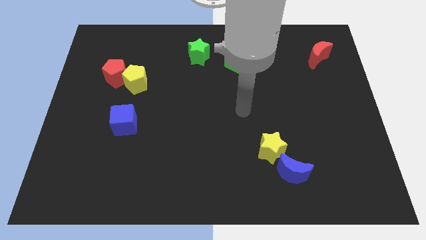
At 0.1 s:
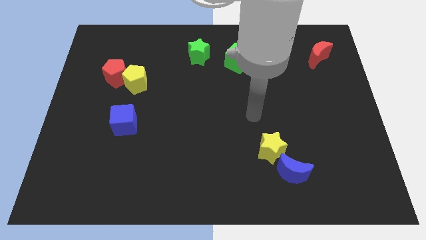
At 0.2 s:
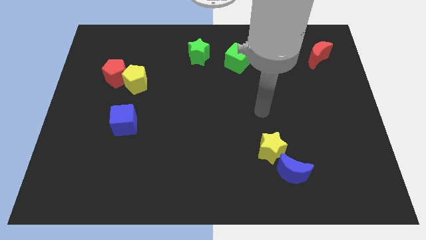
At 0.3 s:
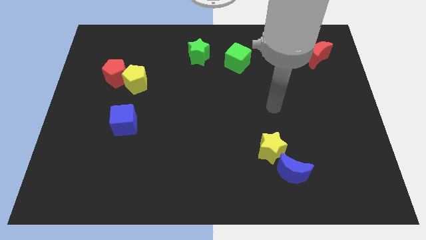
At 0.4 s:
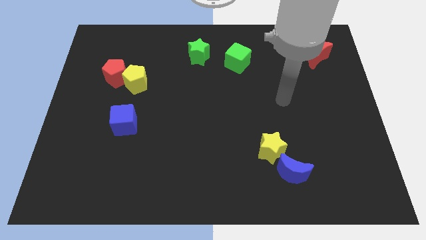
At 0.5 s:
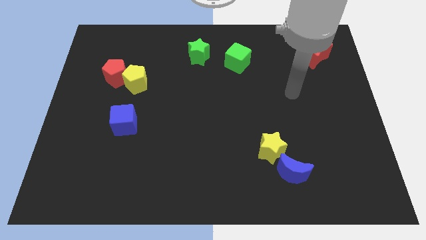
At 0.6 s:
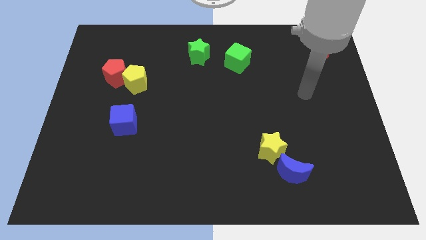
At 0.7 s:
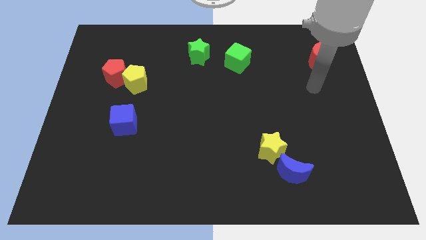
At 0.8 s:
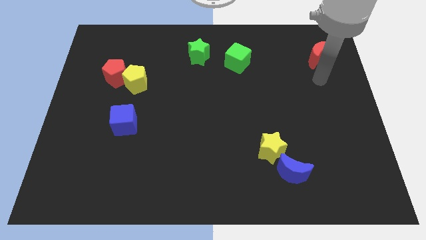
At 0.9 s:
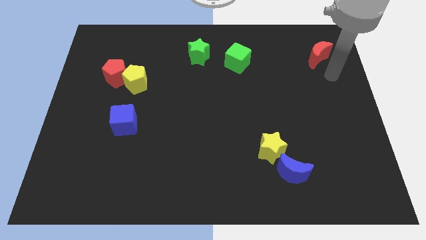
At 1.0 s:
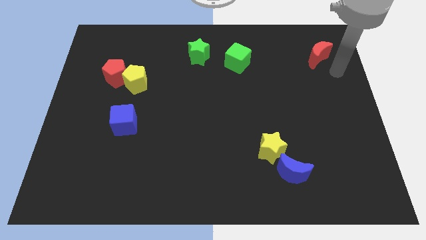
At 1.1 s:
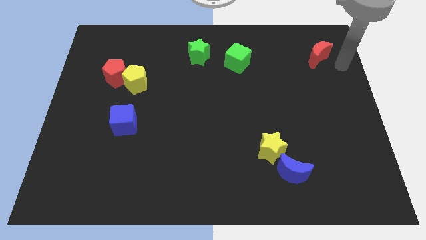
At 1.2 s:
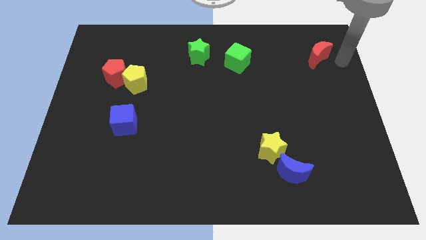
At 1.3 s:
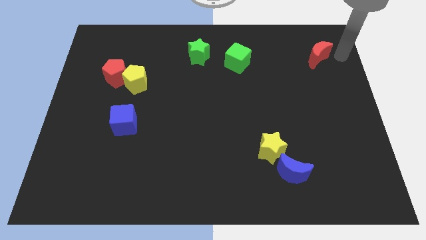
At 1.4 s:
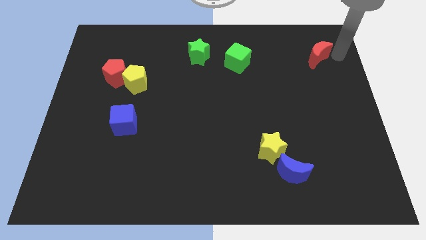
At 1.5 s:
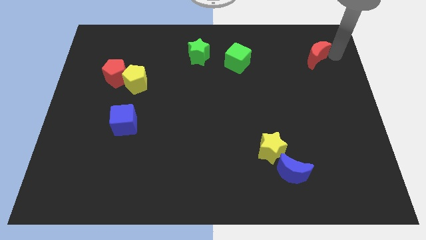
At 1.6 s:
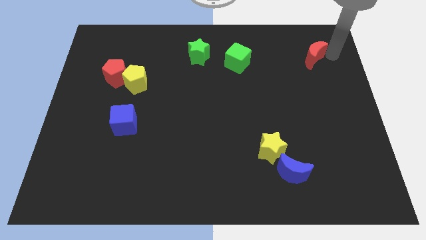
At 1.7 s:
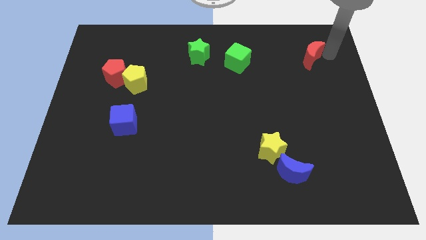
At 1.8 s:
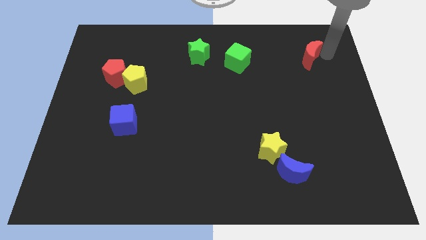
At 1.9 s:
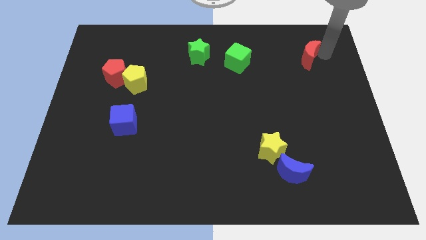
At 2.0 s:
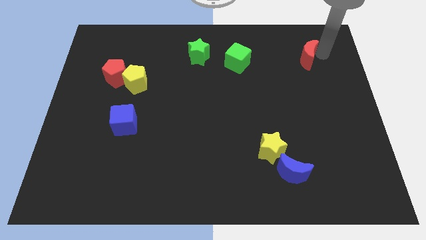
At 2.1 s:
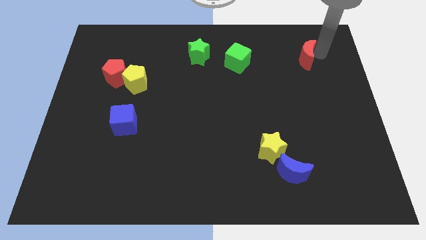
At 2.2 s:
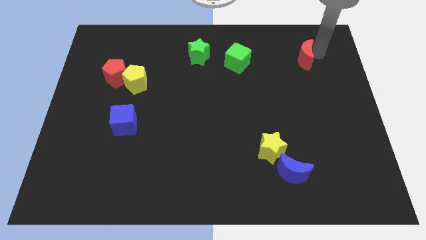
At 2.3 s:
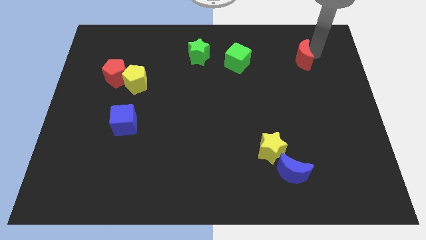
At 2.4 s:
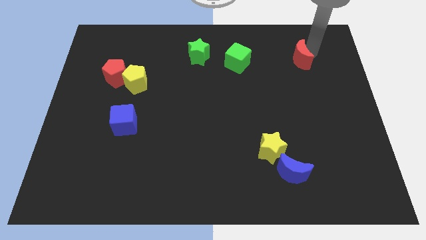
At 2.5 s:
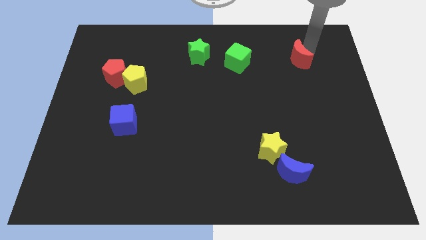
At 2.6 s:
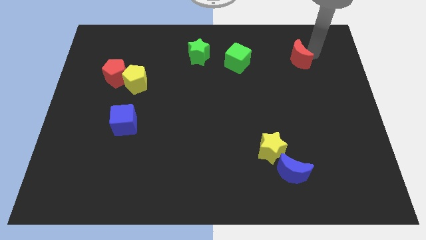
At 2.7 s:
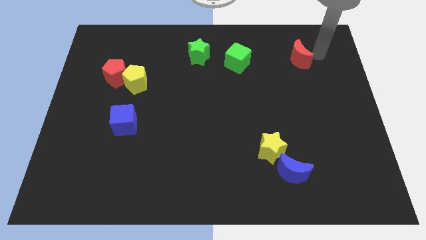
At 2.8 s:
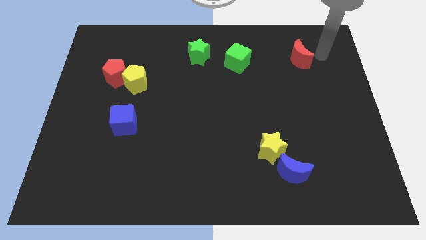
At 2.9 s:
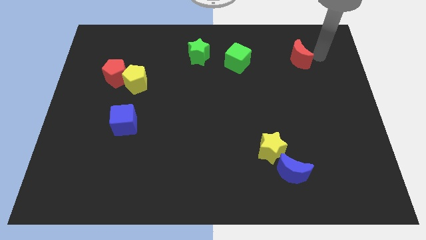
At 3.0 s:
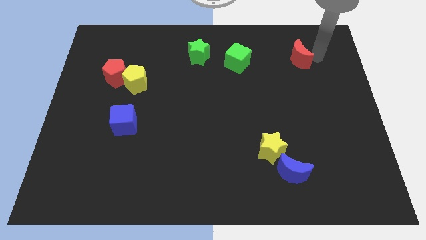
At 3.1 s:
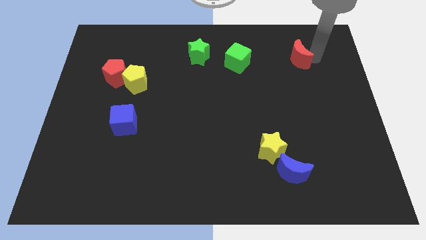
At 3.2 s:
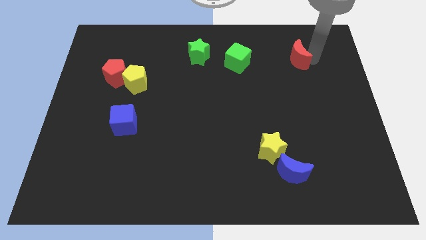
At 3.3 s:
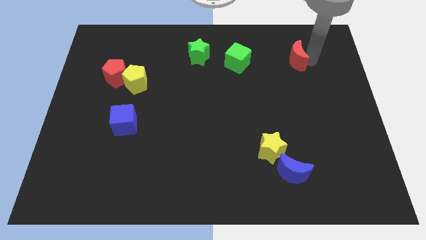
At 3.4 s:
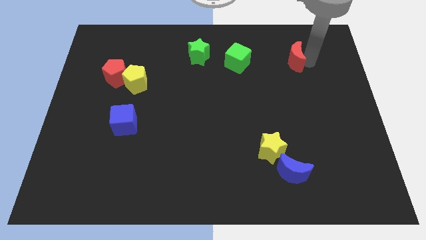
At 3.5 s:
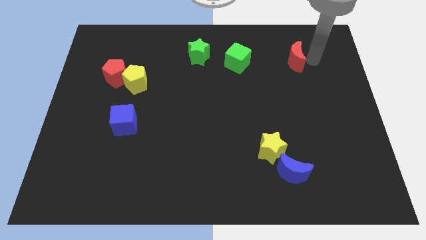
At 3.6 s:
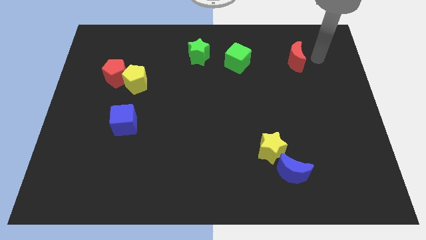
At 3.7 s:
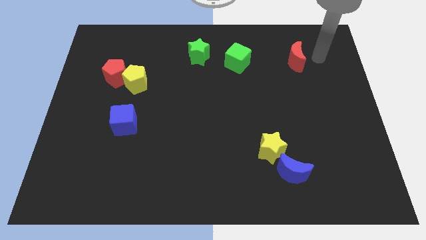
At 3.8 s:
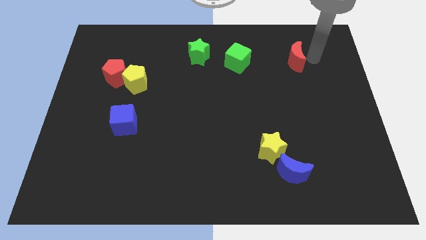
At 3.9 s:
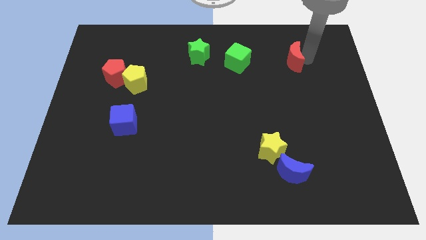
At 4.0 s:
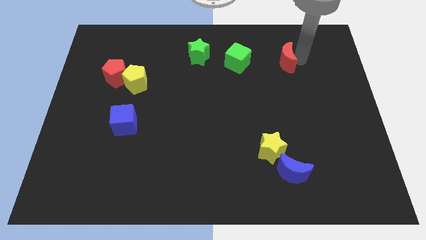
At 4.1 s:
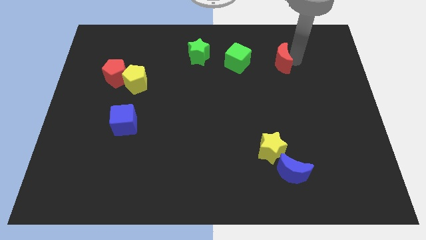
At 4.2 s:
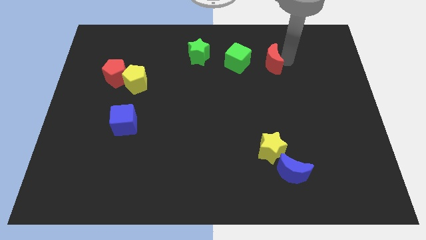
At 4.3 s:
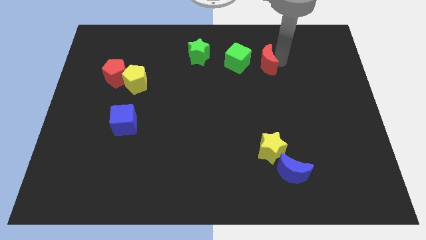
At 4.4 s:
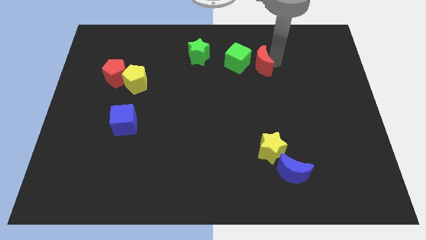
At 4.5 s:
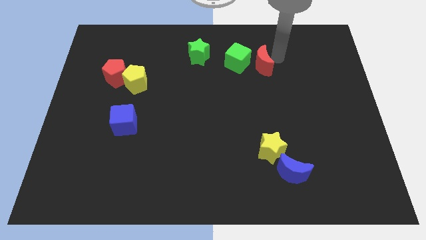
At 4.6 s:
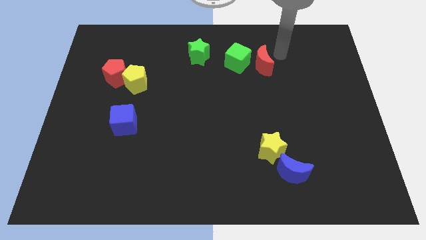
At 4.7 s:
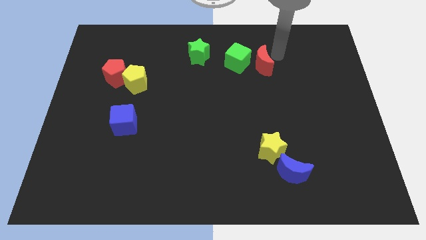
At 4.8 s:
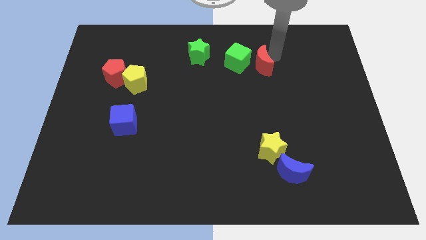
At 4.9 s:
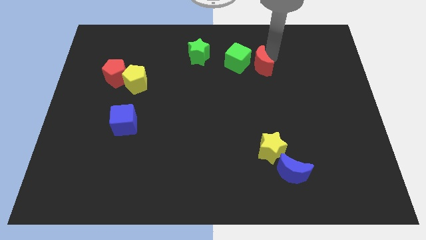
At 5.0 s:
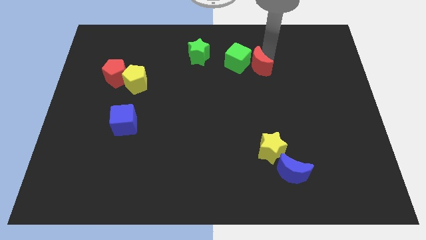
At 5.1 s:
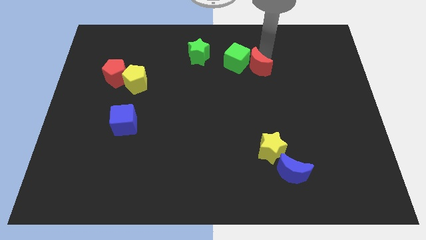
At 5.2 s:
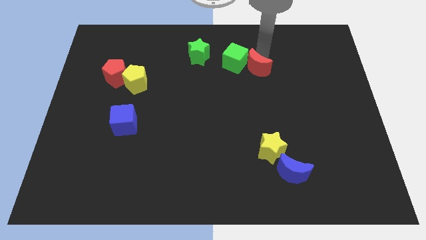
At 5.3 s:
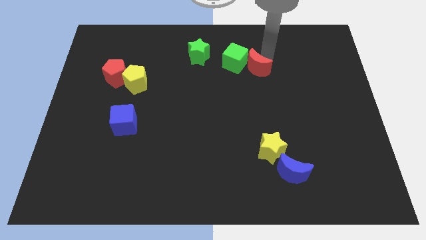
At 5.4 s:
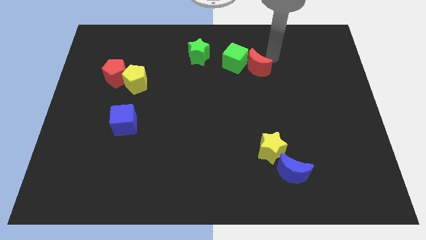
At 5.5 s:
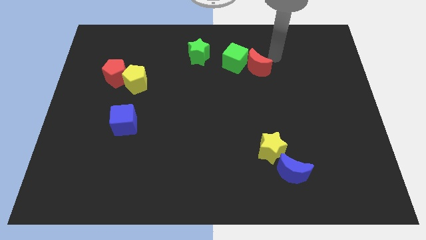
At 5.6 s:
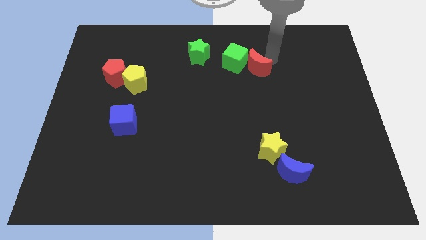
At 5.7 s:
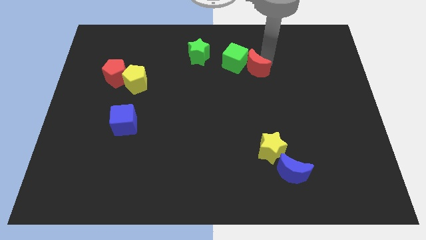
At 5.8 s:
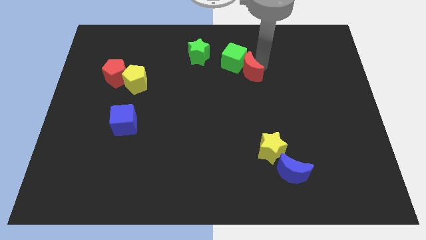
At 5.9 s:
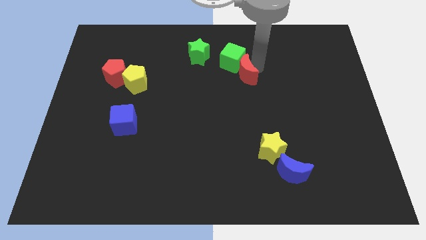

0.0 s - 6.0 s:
push the red moon to the center
